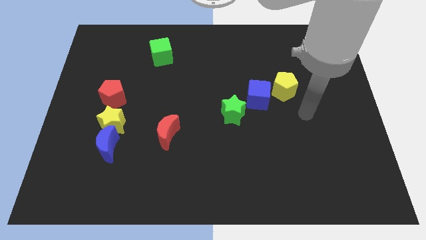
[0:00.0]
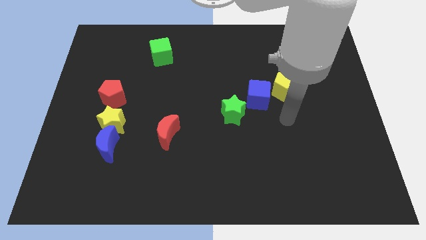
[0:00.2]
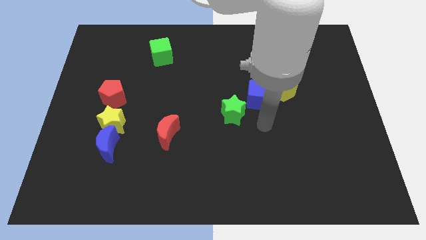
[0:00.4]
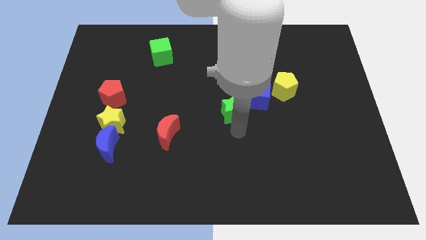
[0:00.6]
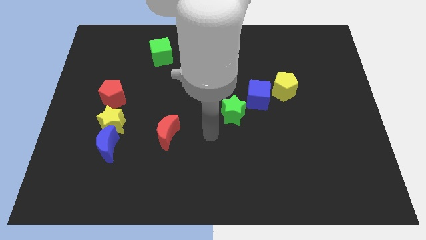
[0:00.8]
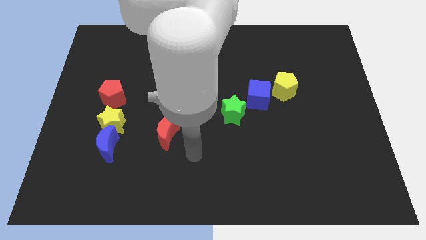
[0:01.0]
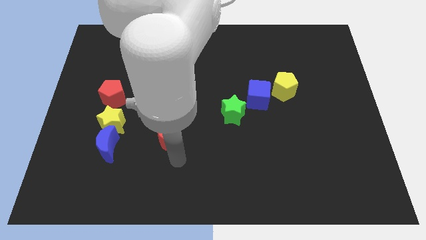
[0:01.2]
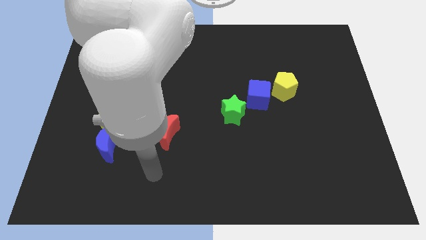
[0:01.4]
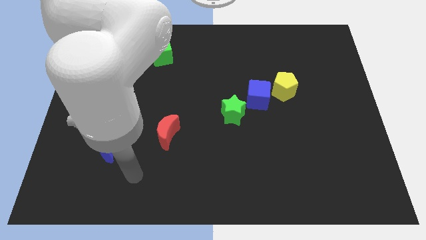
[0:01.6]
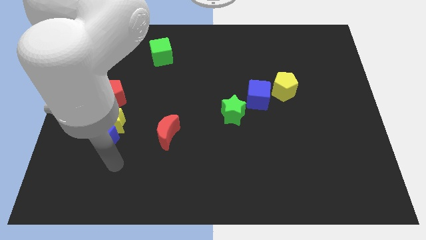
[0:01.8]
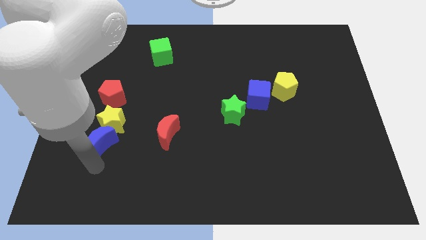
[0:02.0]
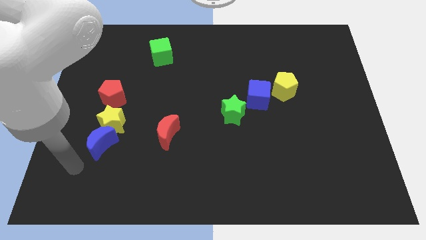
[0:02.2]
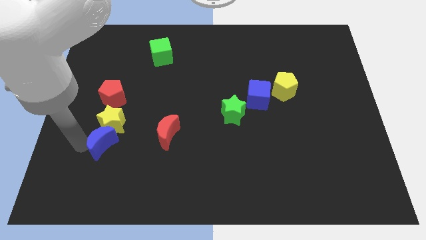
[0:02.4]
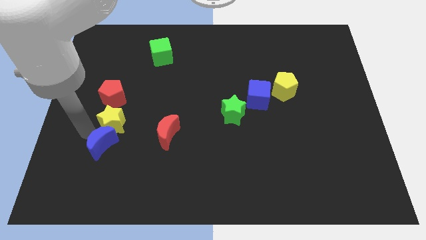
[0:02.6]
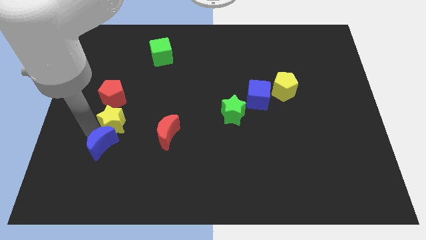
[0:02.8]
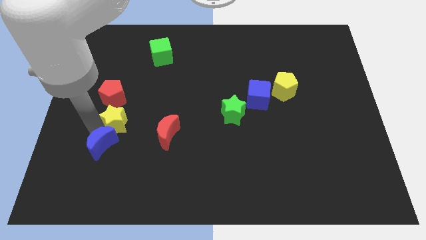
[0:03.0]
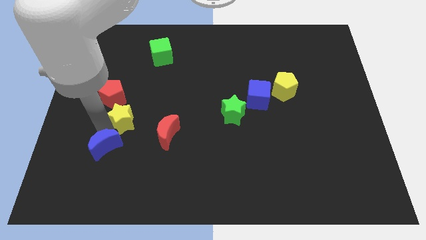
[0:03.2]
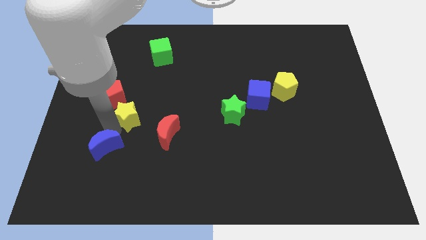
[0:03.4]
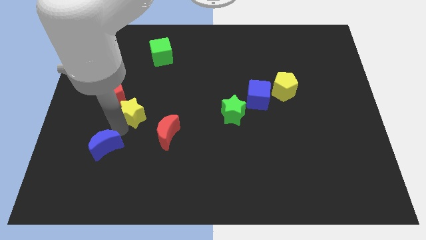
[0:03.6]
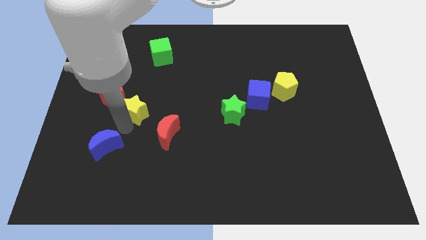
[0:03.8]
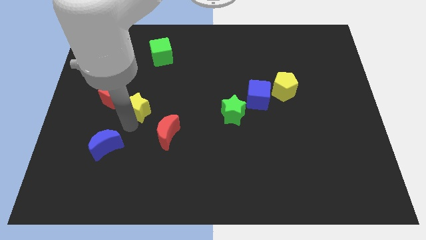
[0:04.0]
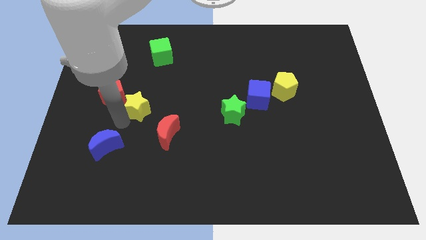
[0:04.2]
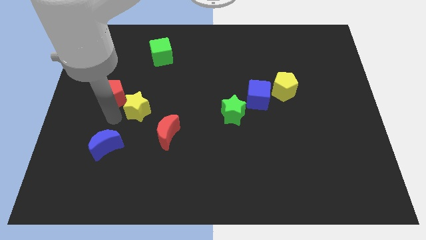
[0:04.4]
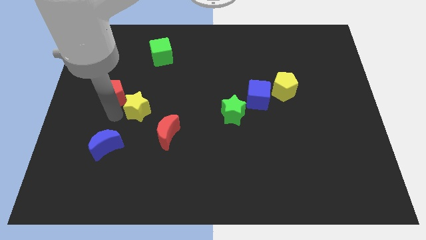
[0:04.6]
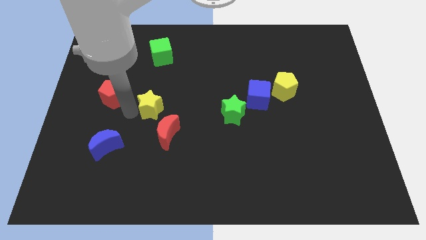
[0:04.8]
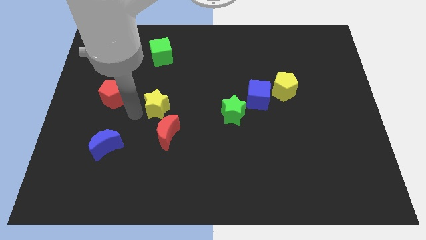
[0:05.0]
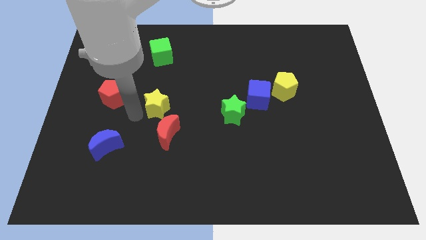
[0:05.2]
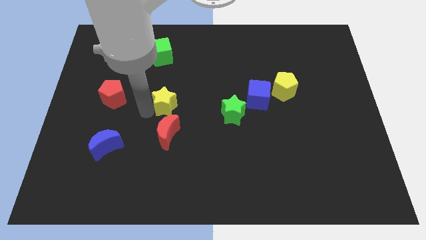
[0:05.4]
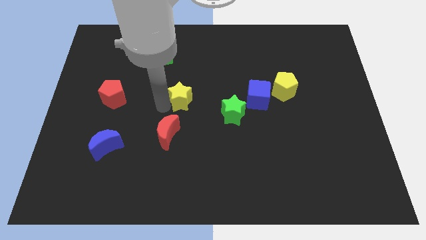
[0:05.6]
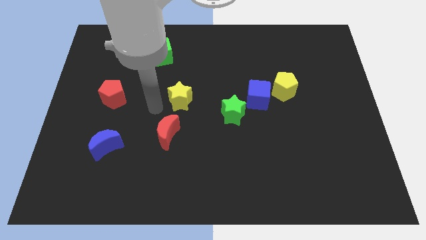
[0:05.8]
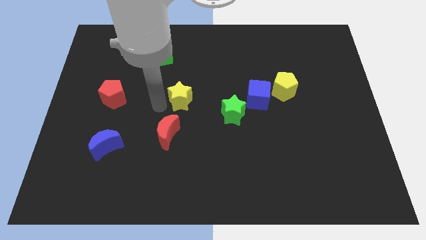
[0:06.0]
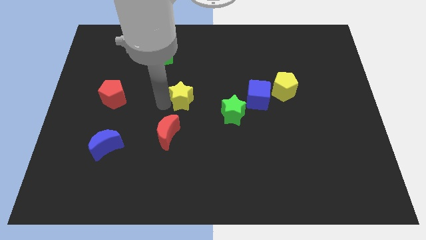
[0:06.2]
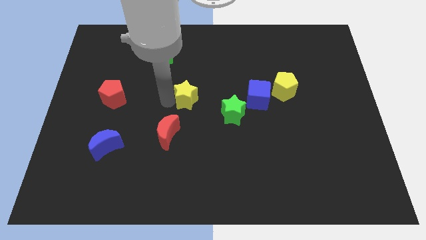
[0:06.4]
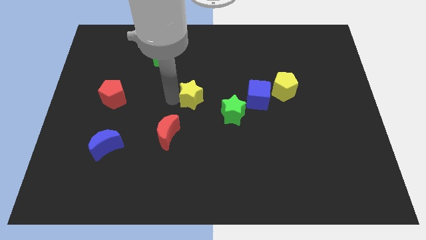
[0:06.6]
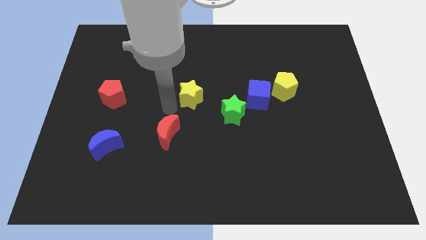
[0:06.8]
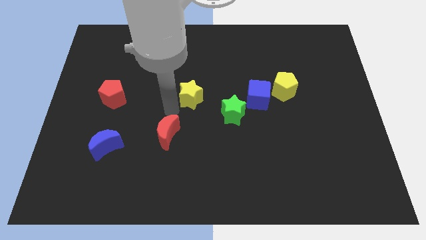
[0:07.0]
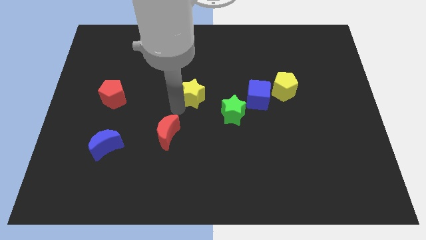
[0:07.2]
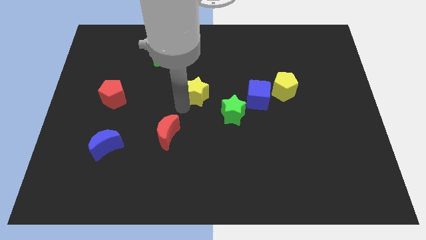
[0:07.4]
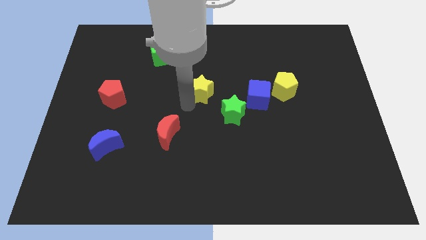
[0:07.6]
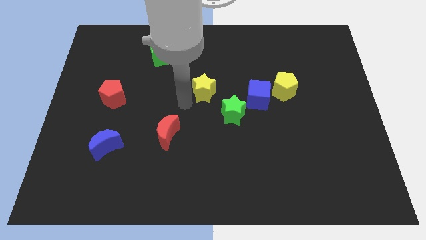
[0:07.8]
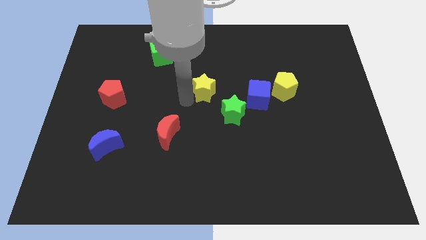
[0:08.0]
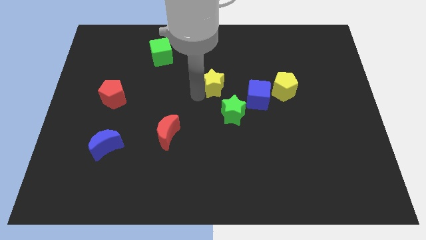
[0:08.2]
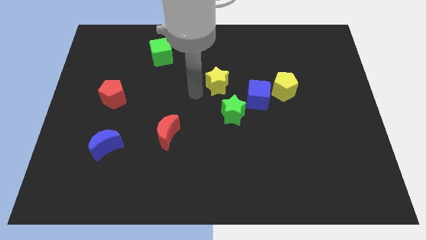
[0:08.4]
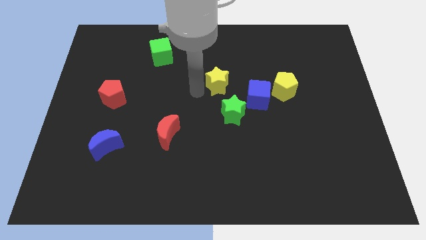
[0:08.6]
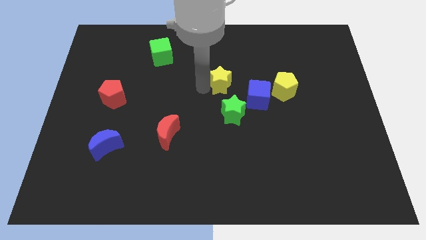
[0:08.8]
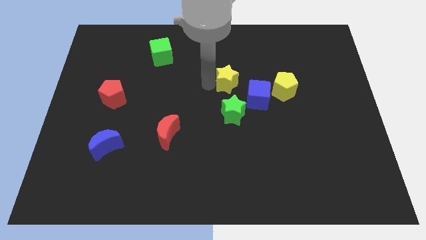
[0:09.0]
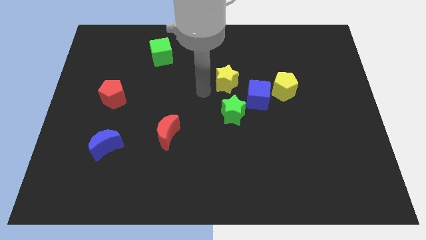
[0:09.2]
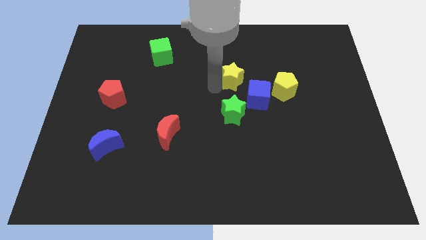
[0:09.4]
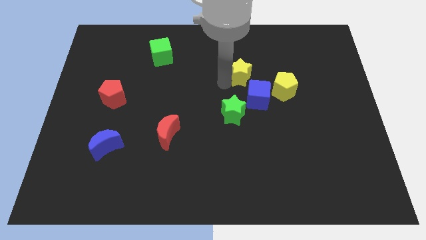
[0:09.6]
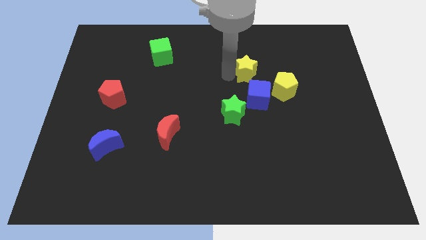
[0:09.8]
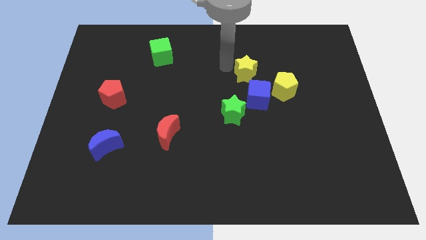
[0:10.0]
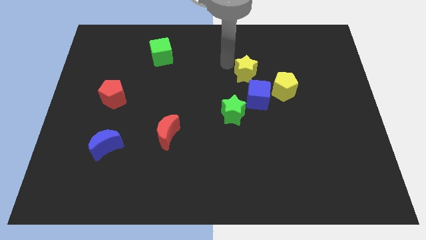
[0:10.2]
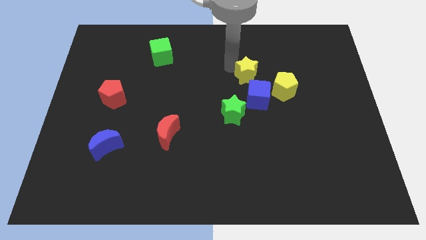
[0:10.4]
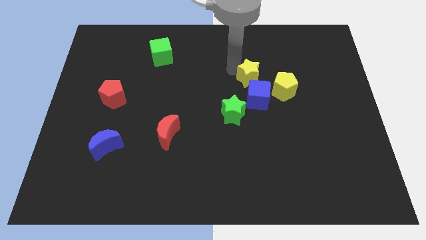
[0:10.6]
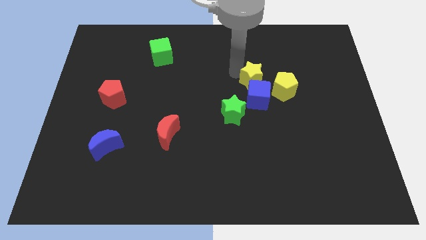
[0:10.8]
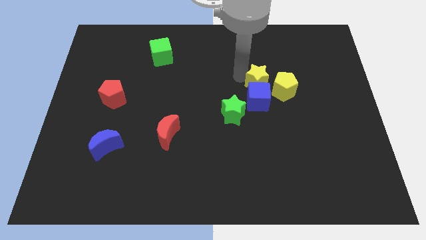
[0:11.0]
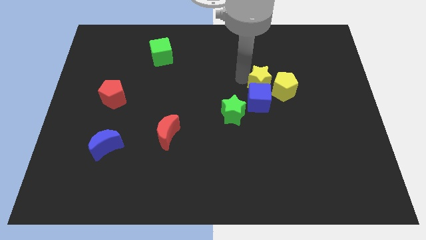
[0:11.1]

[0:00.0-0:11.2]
put the yellow star to the yellow pentagon
